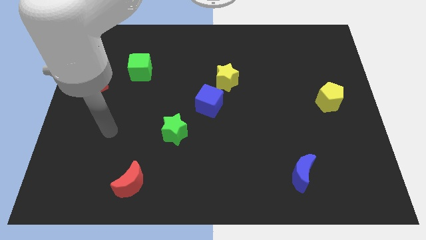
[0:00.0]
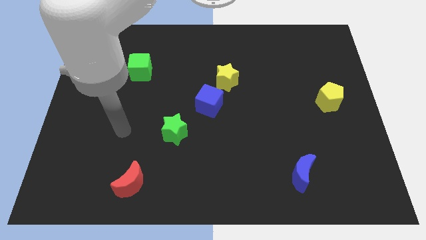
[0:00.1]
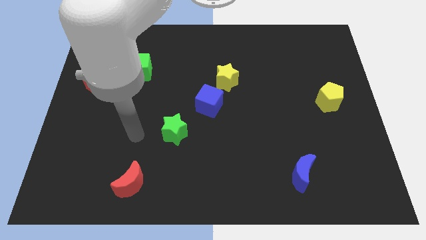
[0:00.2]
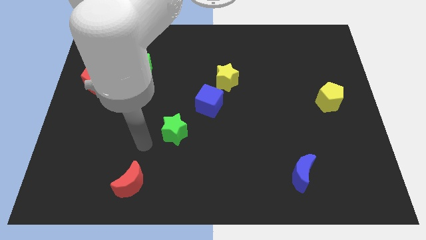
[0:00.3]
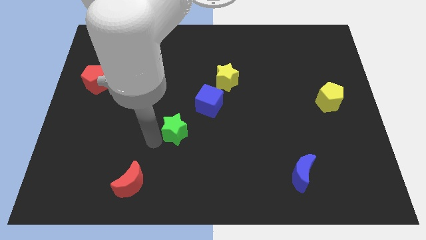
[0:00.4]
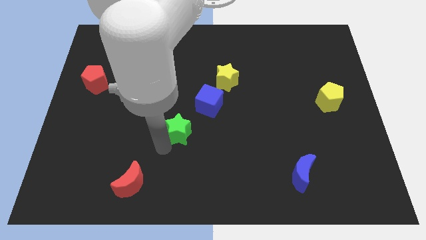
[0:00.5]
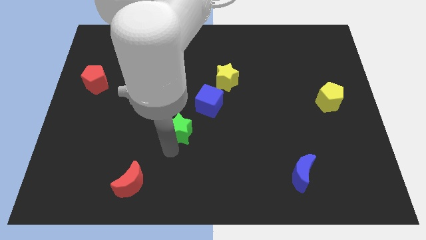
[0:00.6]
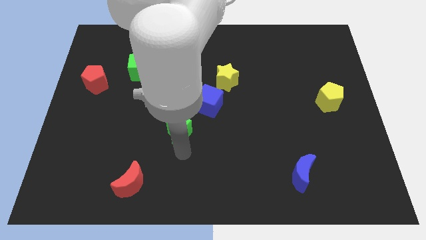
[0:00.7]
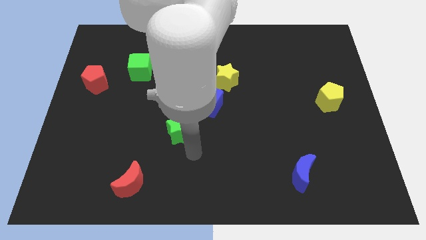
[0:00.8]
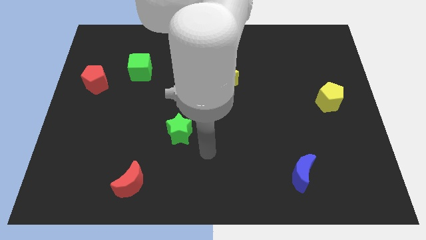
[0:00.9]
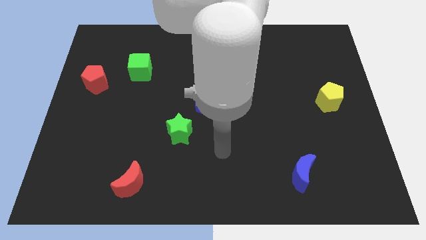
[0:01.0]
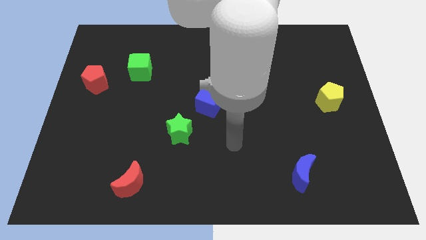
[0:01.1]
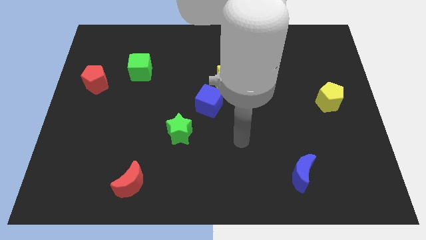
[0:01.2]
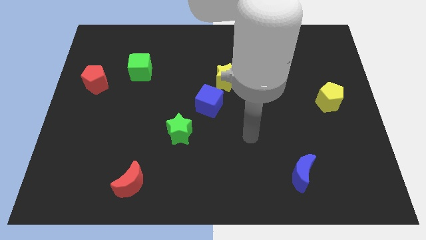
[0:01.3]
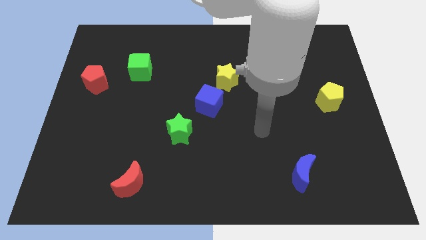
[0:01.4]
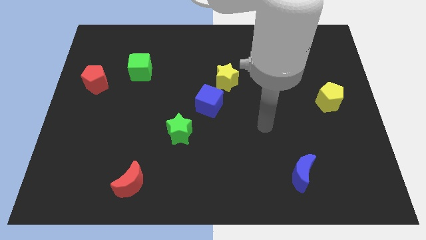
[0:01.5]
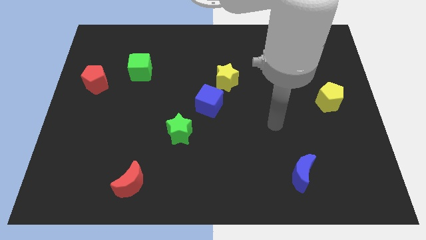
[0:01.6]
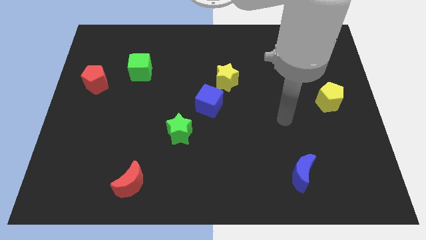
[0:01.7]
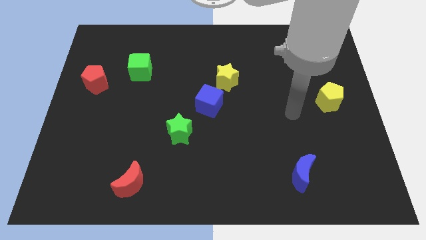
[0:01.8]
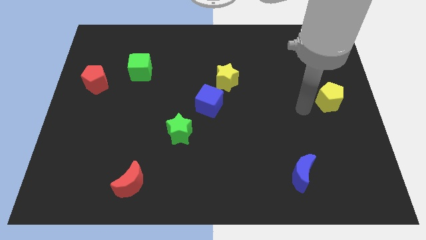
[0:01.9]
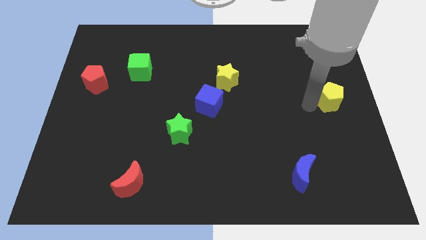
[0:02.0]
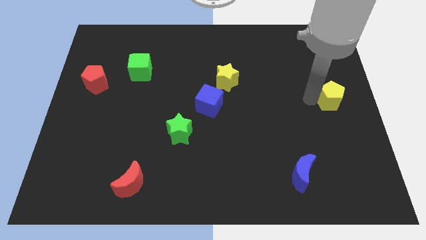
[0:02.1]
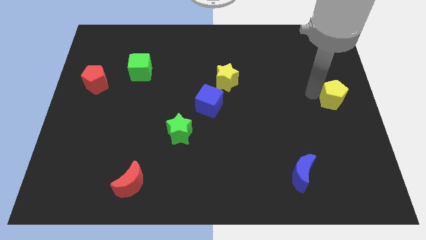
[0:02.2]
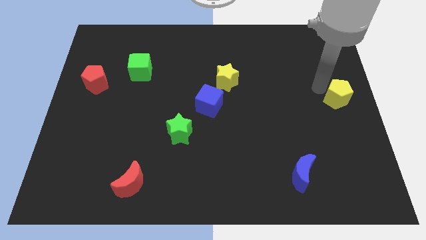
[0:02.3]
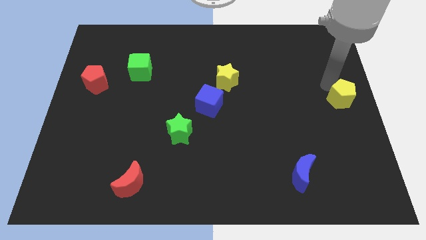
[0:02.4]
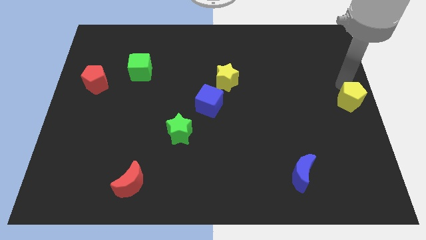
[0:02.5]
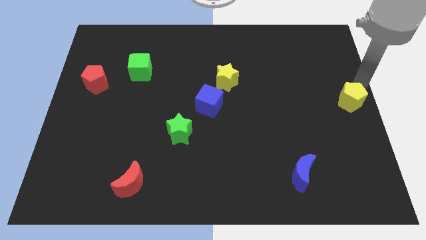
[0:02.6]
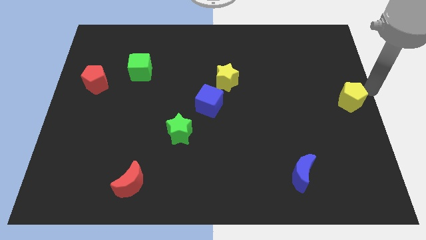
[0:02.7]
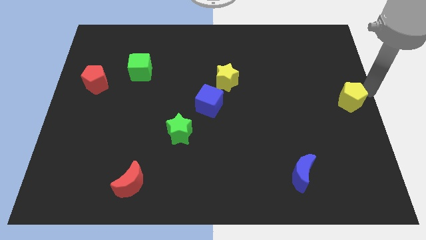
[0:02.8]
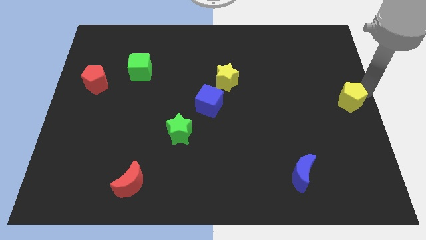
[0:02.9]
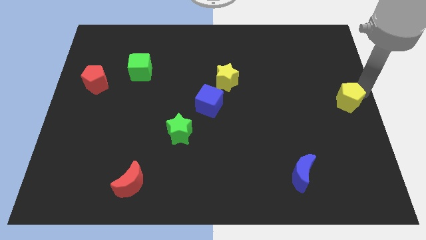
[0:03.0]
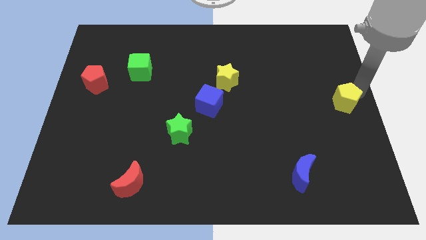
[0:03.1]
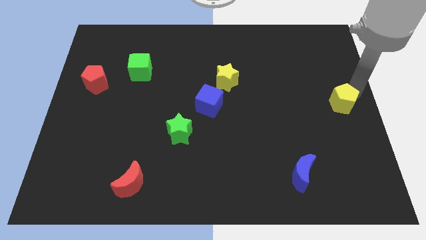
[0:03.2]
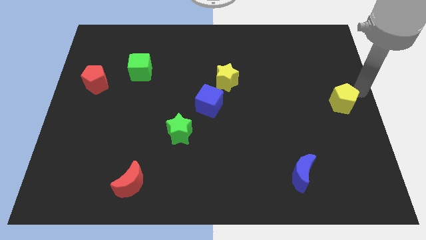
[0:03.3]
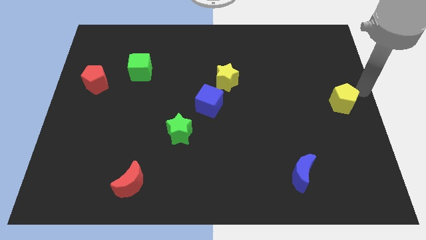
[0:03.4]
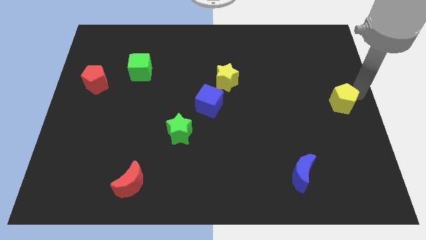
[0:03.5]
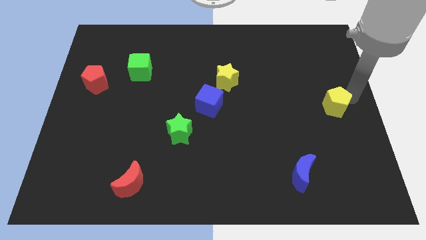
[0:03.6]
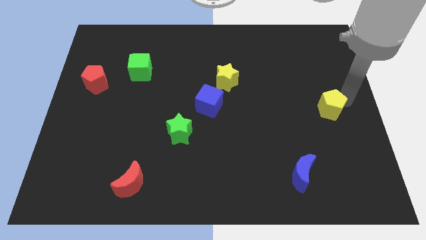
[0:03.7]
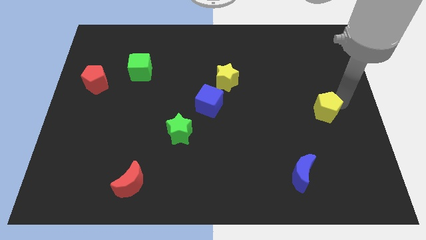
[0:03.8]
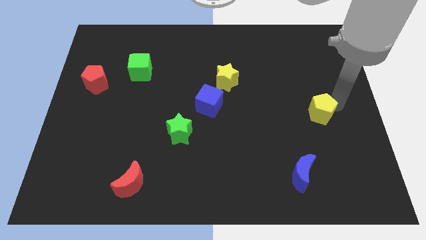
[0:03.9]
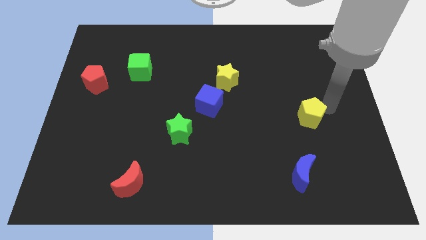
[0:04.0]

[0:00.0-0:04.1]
move the yellow pentagon down and to the left diagonally a bit

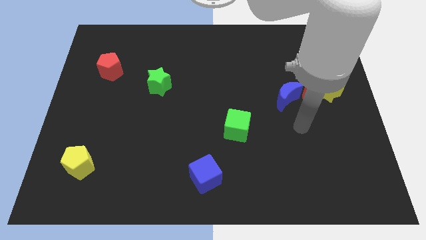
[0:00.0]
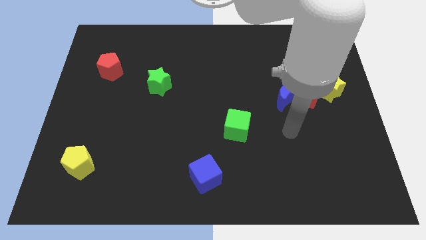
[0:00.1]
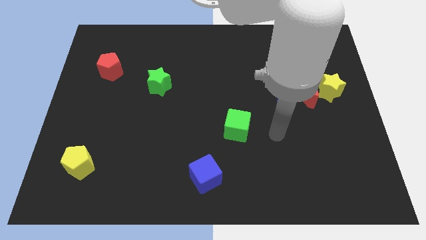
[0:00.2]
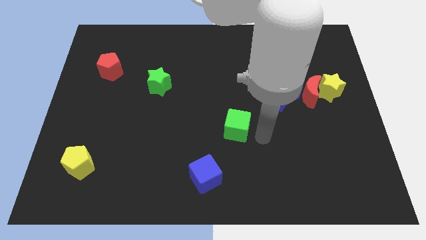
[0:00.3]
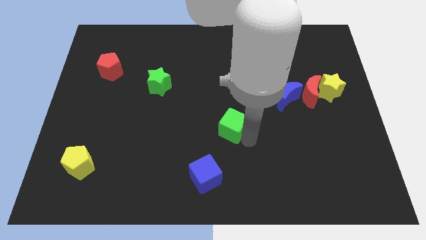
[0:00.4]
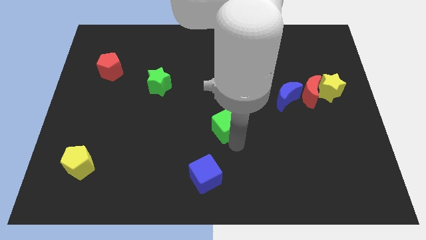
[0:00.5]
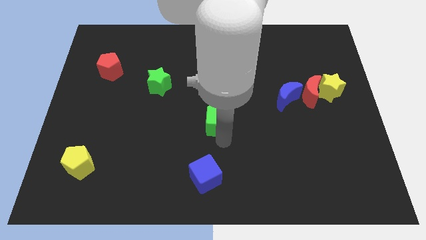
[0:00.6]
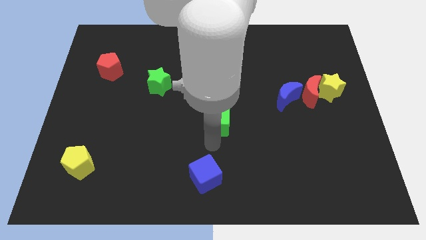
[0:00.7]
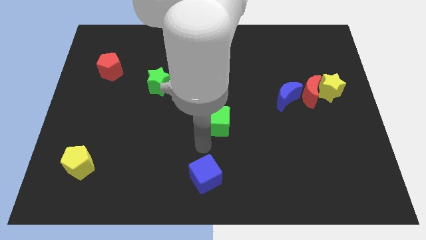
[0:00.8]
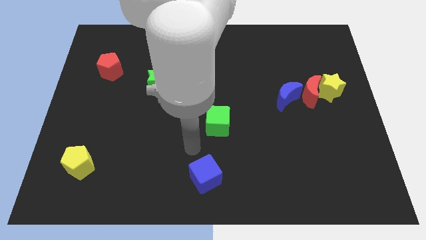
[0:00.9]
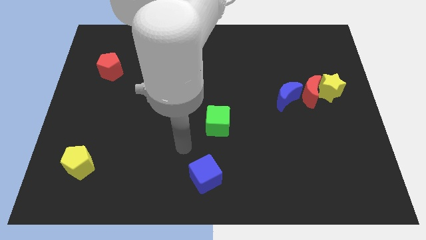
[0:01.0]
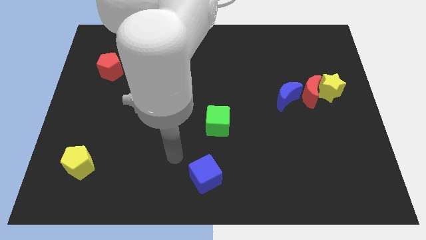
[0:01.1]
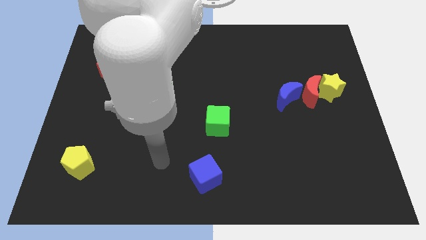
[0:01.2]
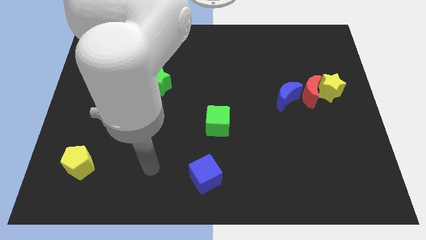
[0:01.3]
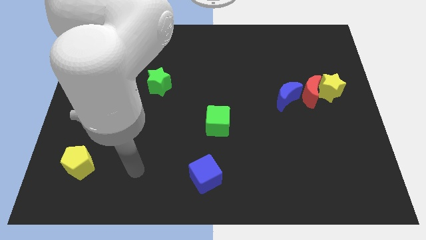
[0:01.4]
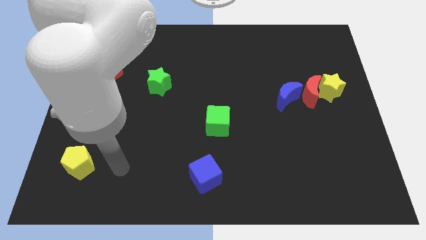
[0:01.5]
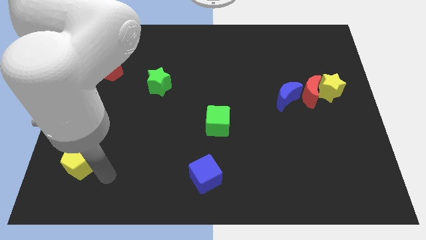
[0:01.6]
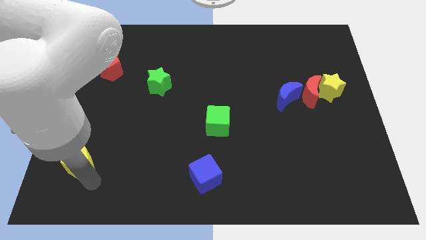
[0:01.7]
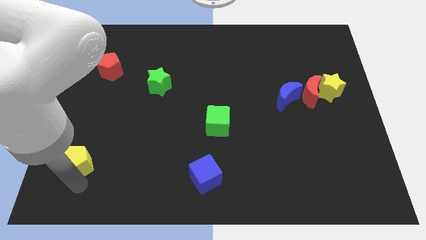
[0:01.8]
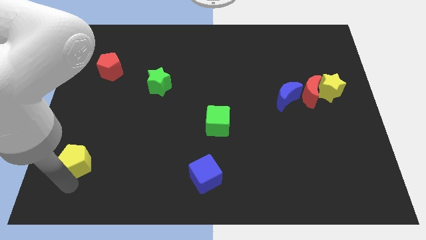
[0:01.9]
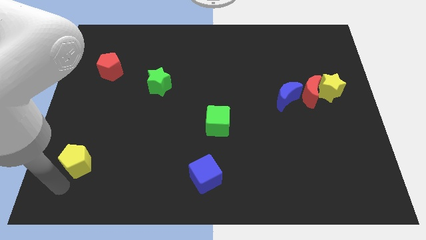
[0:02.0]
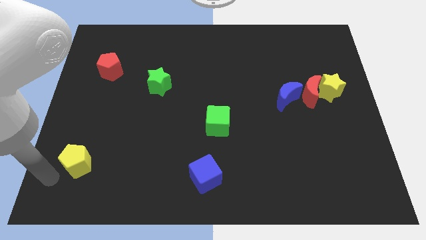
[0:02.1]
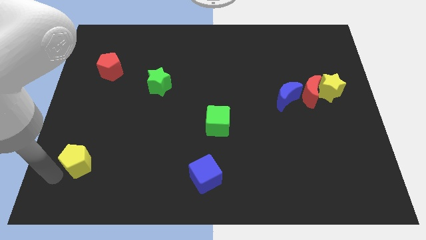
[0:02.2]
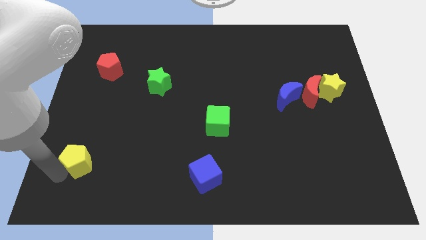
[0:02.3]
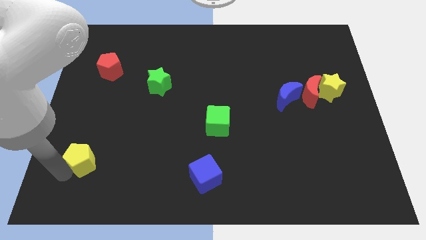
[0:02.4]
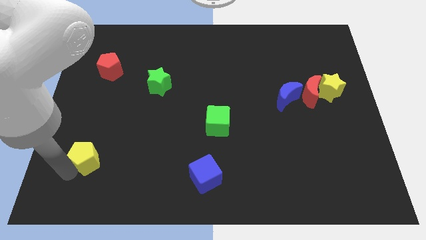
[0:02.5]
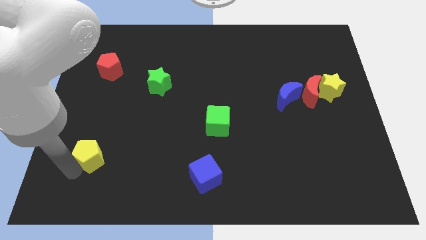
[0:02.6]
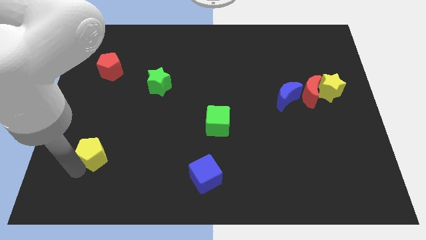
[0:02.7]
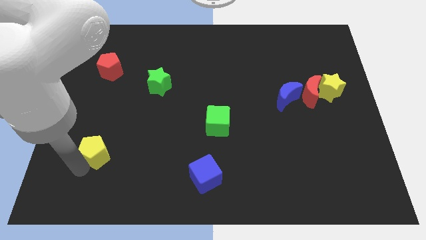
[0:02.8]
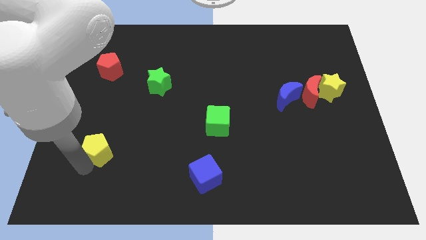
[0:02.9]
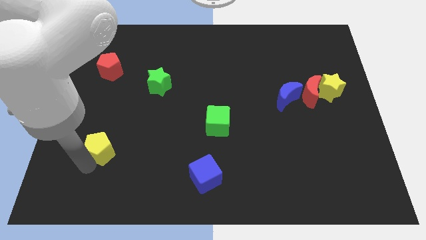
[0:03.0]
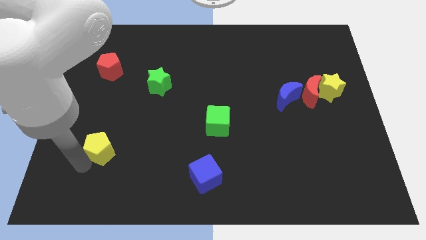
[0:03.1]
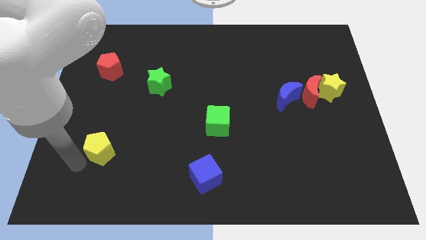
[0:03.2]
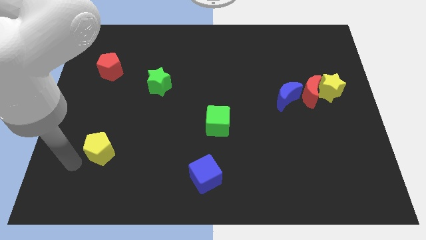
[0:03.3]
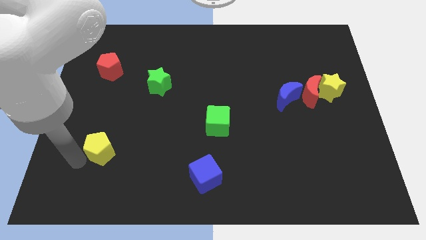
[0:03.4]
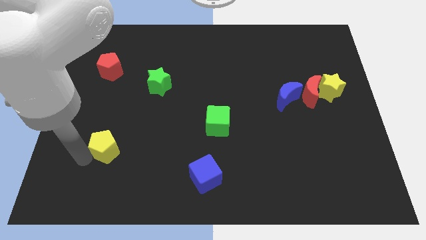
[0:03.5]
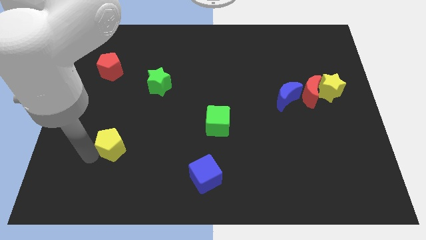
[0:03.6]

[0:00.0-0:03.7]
push the yellow pentagon upwards and then to the right a little

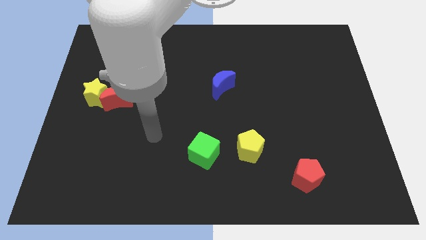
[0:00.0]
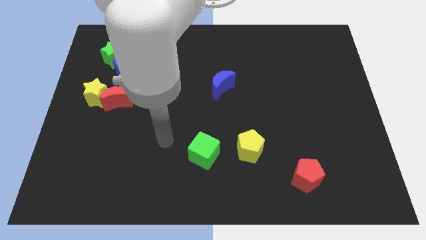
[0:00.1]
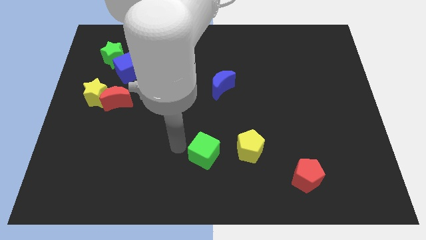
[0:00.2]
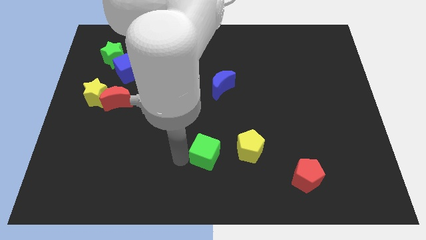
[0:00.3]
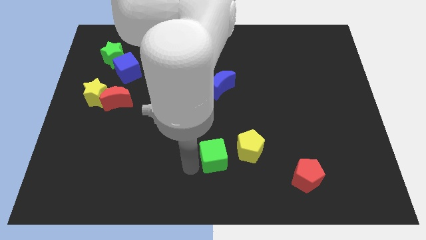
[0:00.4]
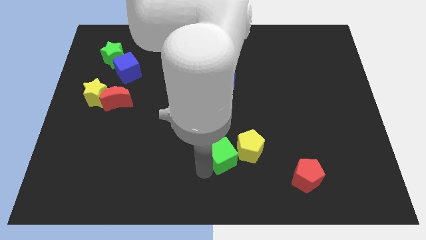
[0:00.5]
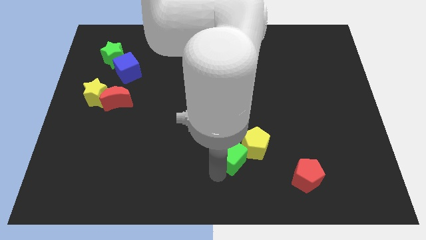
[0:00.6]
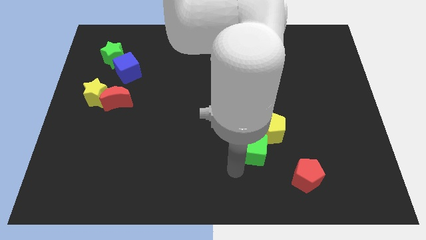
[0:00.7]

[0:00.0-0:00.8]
slightly slide the yellow pentagon up and to the right diagonally
